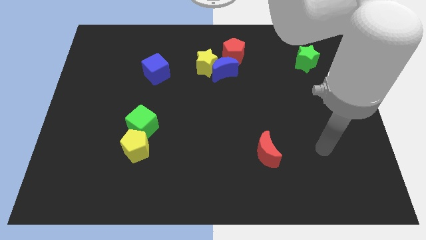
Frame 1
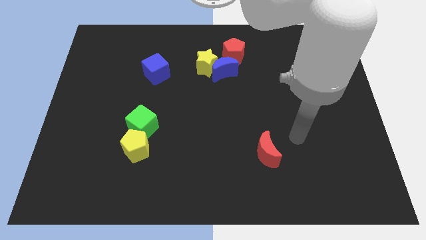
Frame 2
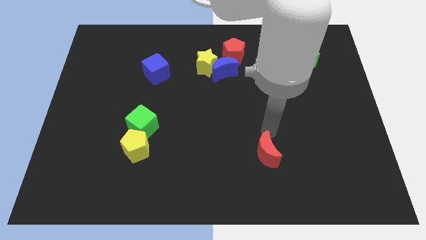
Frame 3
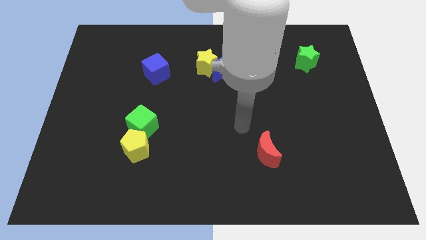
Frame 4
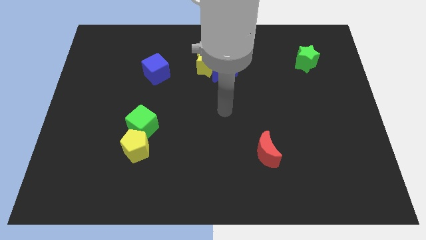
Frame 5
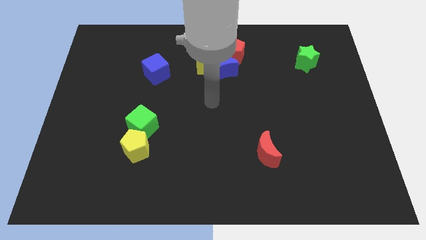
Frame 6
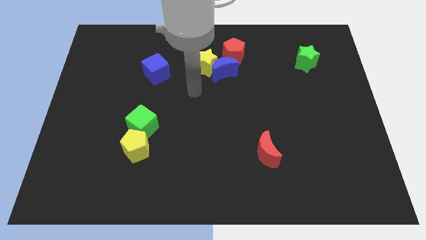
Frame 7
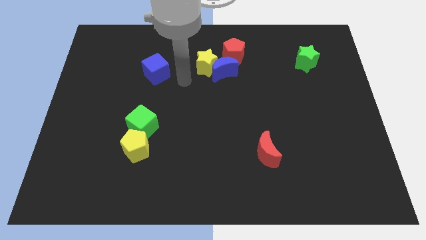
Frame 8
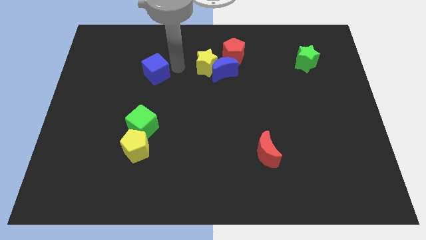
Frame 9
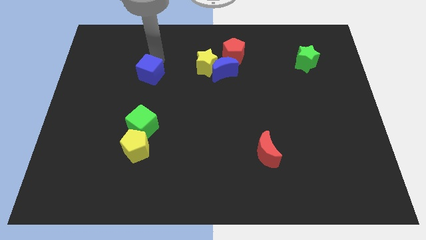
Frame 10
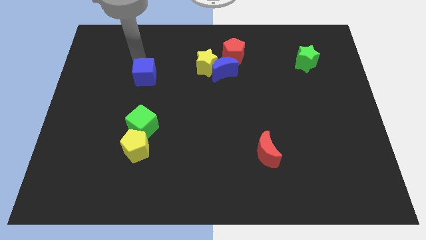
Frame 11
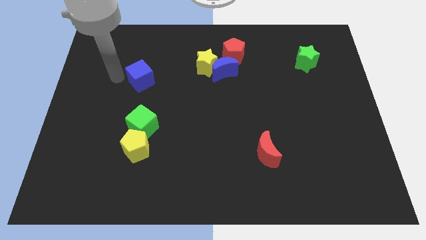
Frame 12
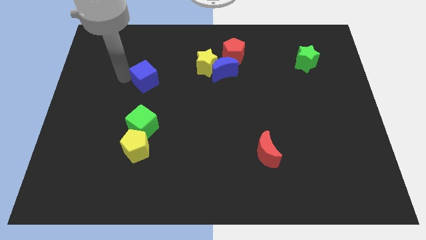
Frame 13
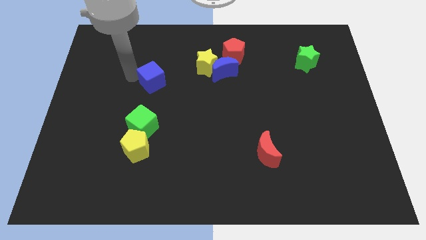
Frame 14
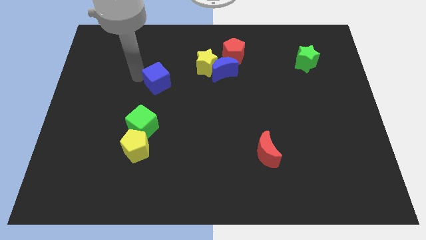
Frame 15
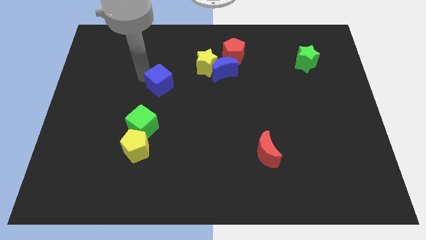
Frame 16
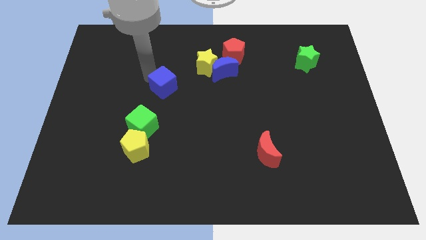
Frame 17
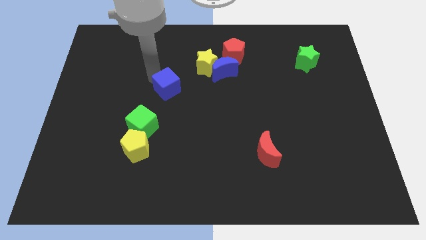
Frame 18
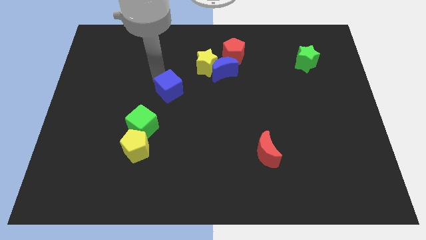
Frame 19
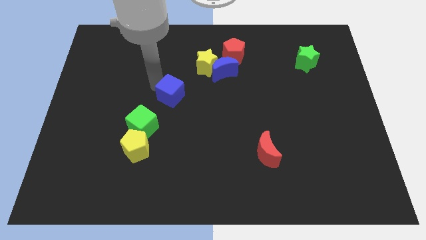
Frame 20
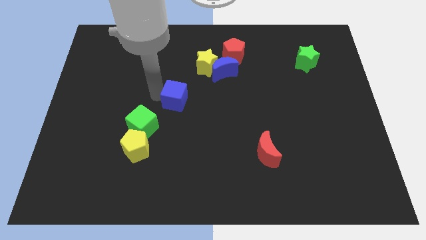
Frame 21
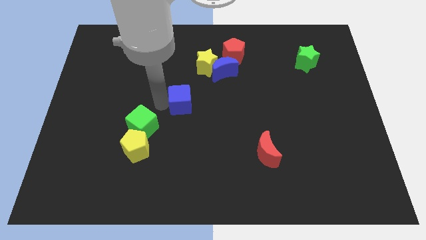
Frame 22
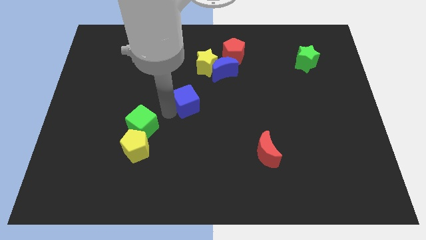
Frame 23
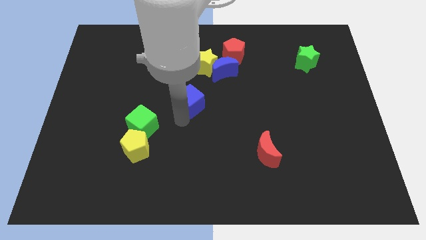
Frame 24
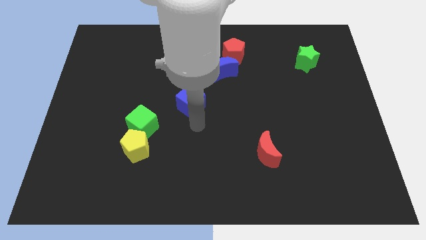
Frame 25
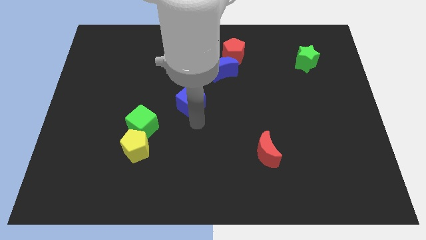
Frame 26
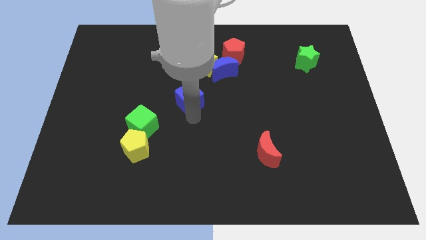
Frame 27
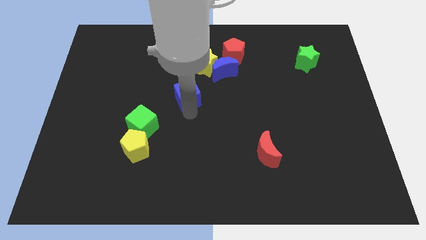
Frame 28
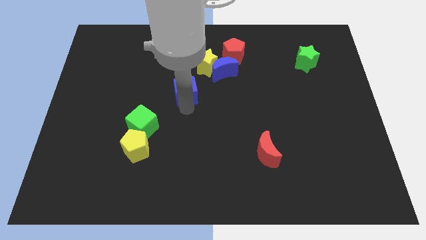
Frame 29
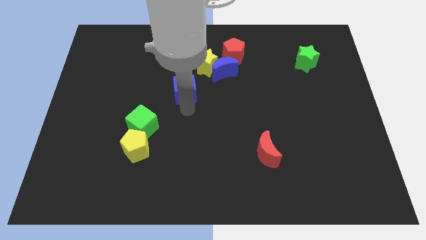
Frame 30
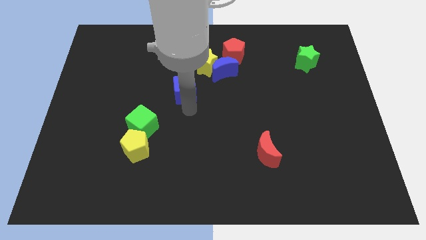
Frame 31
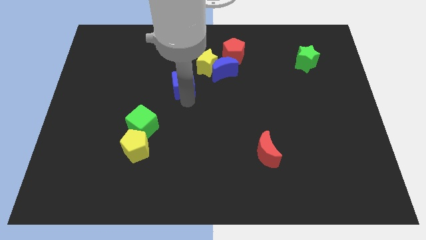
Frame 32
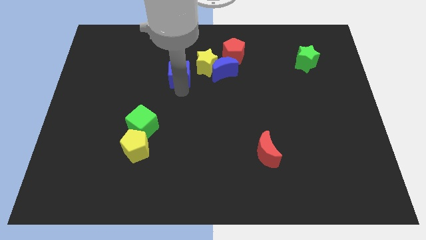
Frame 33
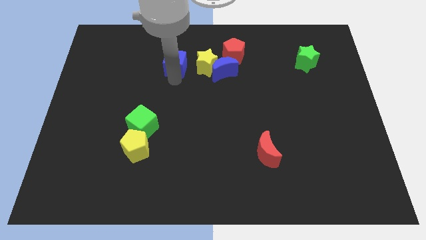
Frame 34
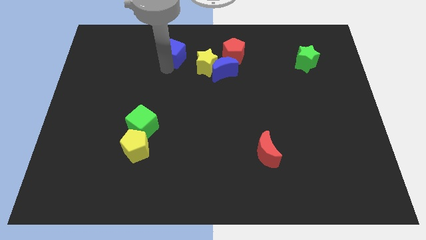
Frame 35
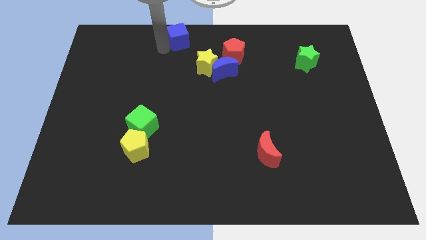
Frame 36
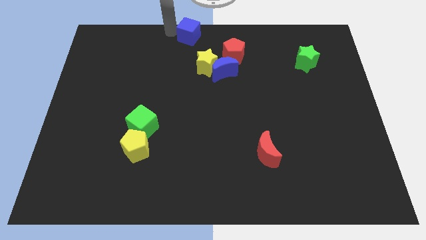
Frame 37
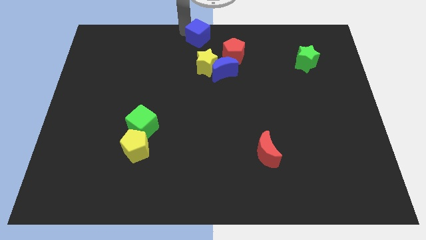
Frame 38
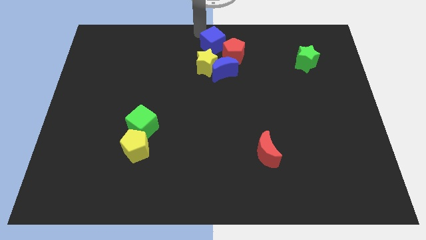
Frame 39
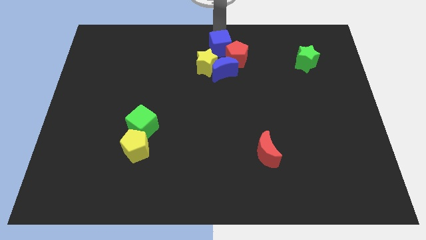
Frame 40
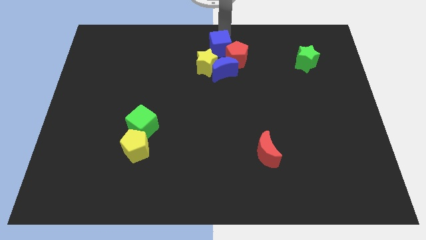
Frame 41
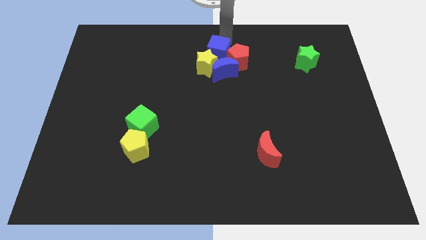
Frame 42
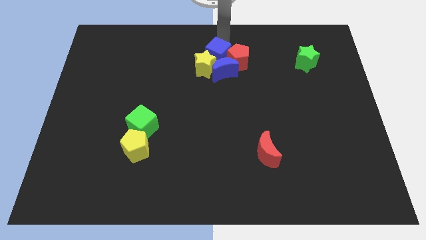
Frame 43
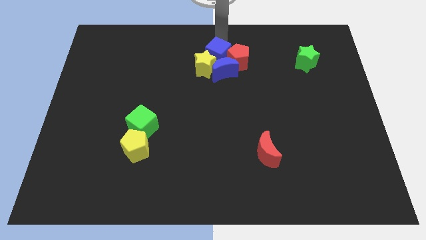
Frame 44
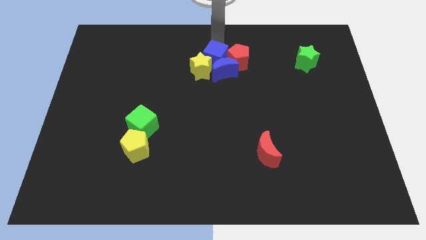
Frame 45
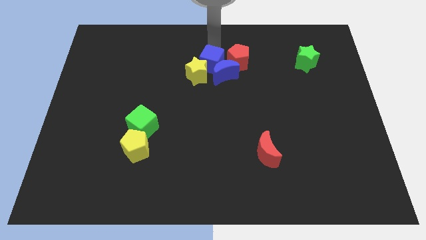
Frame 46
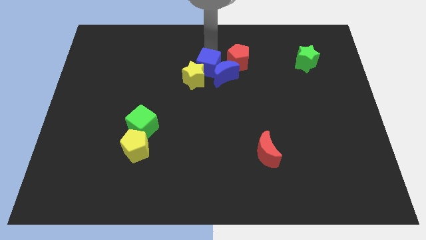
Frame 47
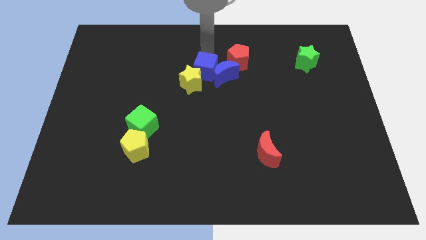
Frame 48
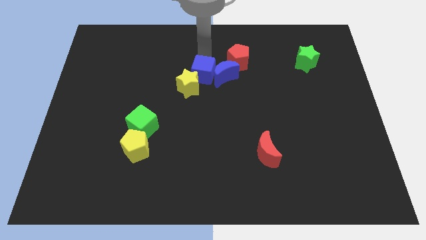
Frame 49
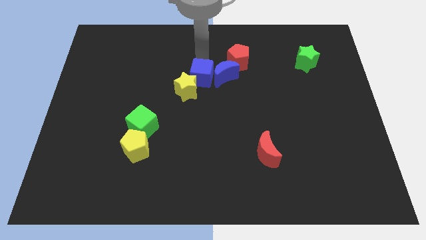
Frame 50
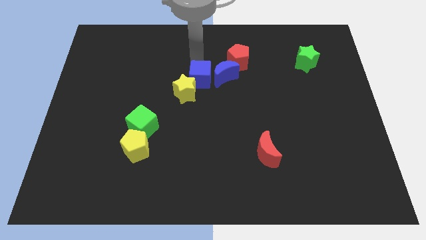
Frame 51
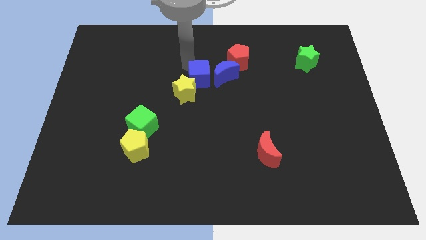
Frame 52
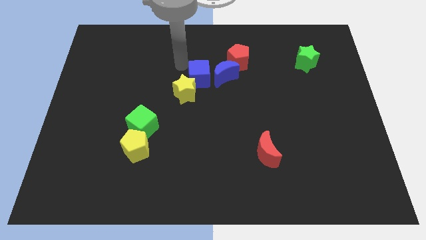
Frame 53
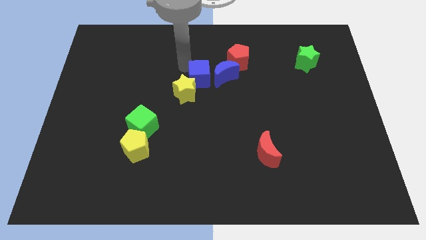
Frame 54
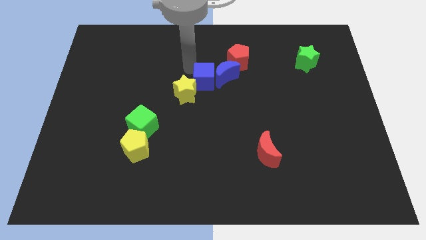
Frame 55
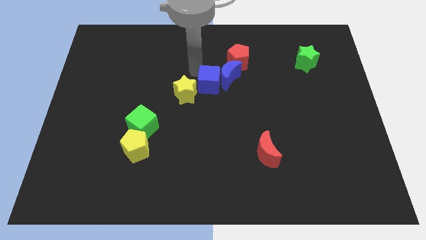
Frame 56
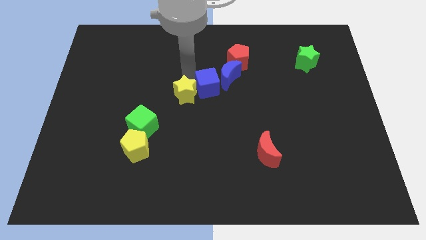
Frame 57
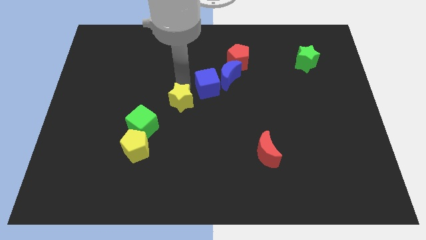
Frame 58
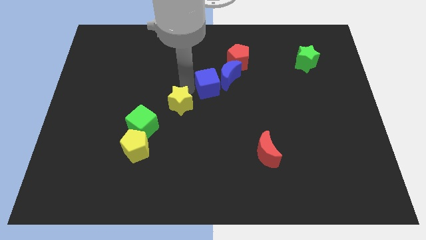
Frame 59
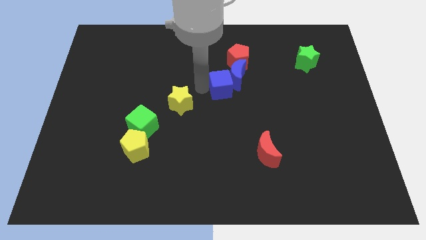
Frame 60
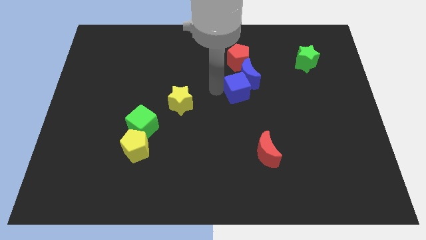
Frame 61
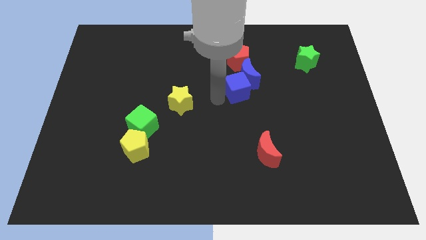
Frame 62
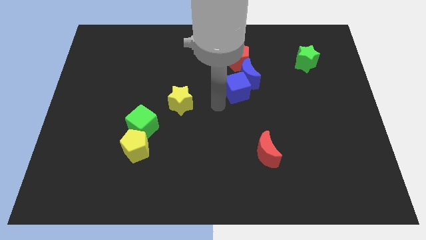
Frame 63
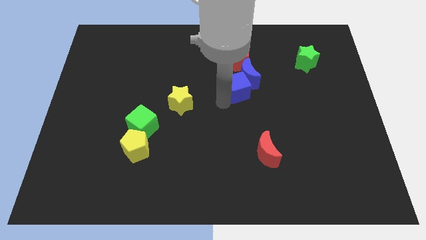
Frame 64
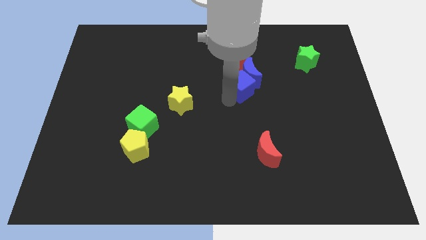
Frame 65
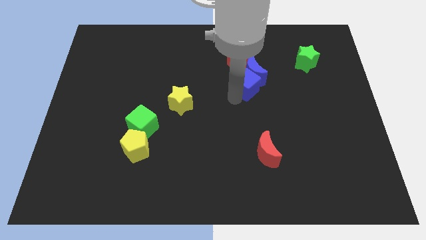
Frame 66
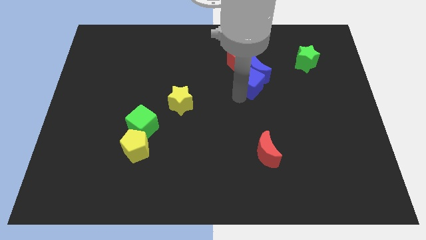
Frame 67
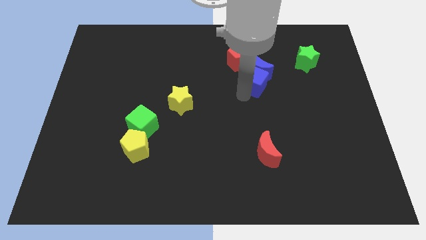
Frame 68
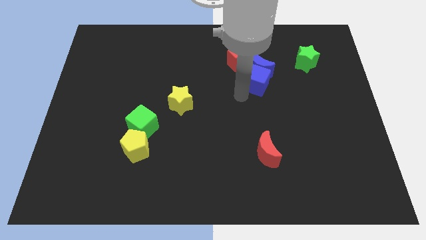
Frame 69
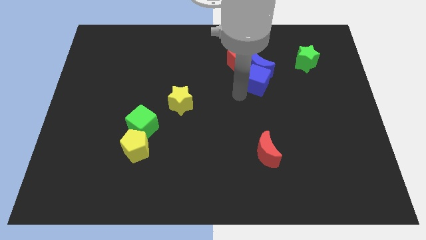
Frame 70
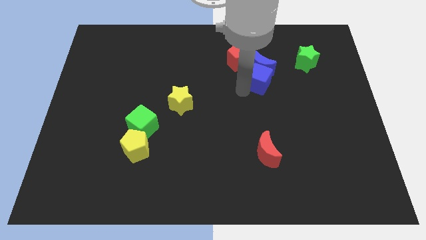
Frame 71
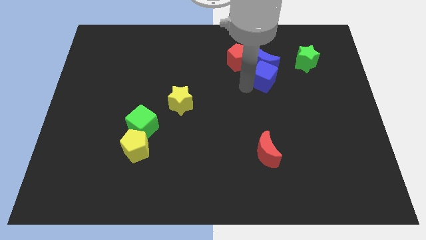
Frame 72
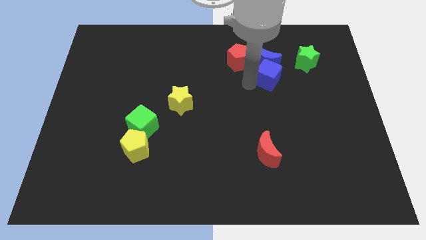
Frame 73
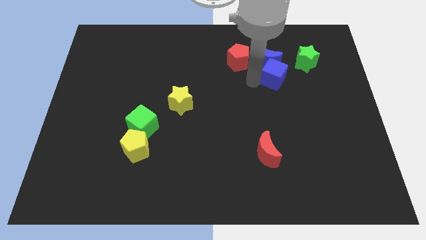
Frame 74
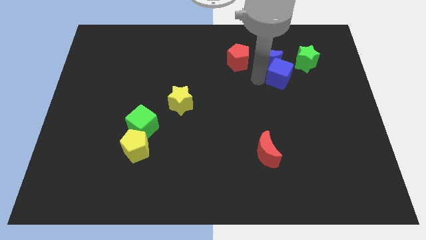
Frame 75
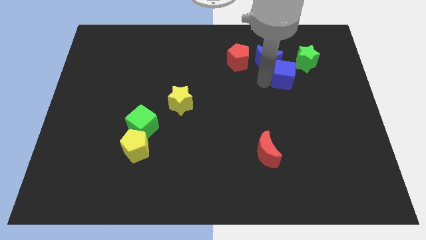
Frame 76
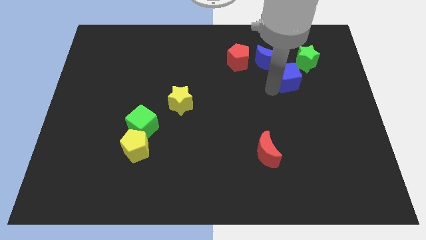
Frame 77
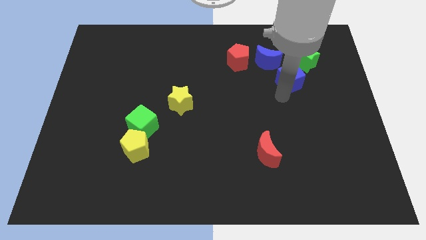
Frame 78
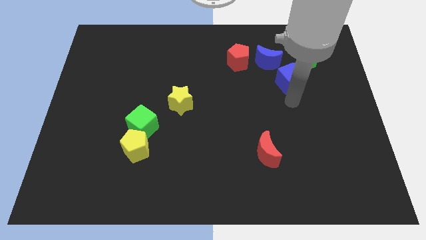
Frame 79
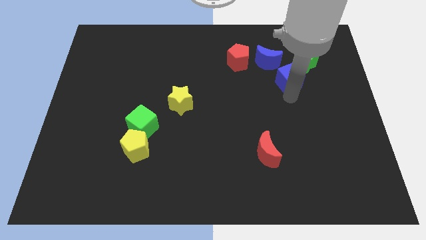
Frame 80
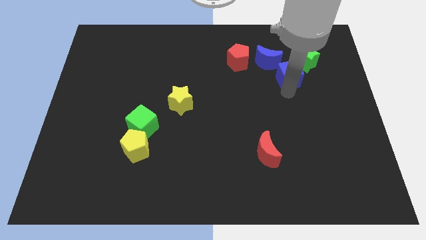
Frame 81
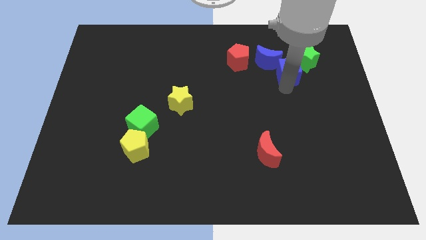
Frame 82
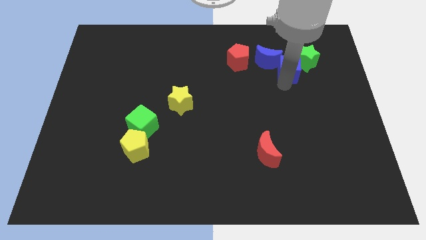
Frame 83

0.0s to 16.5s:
slide the blue cube to the green star
